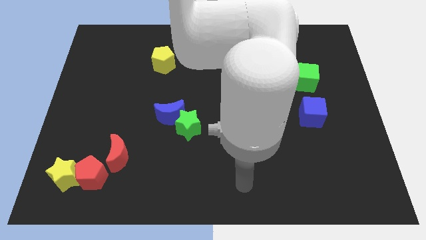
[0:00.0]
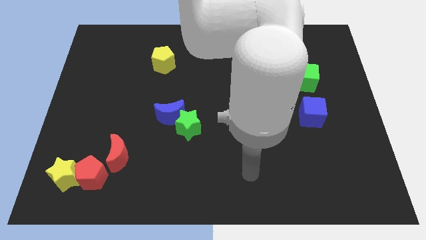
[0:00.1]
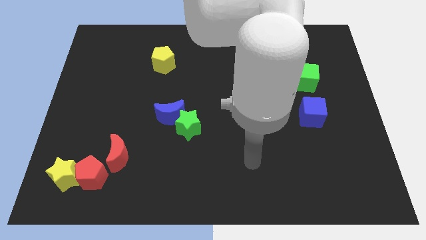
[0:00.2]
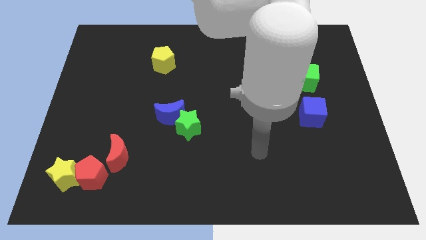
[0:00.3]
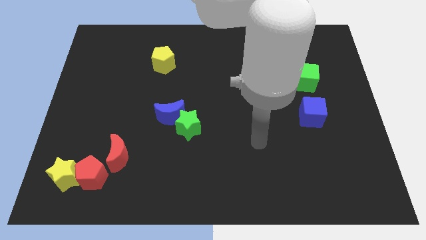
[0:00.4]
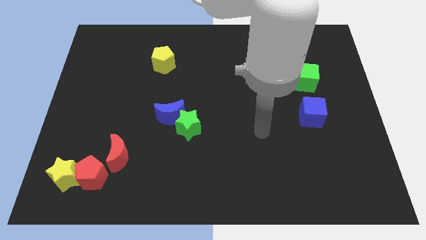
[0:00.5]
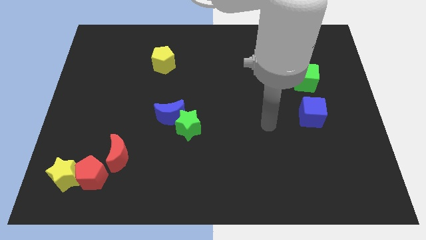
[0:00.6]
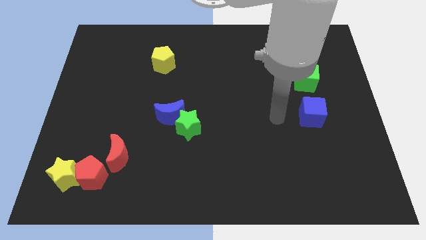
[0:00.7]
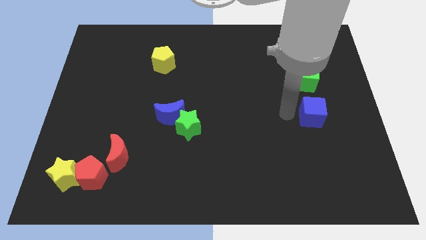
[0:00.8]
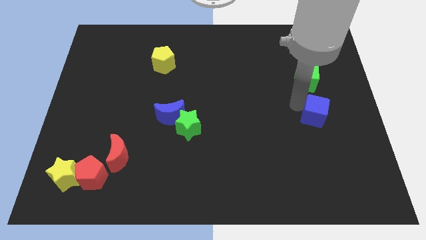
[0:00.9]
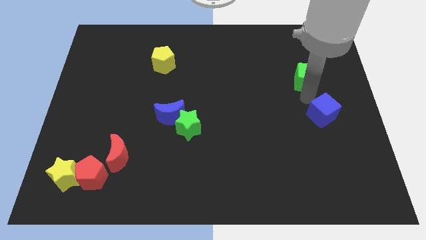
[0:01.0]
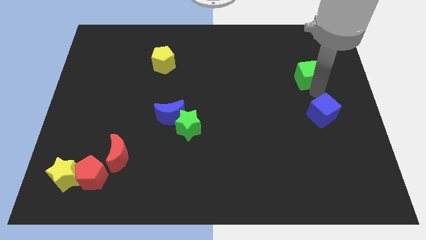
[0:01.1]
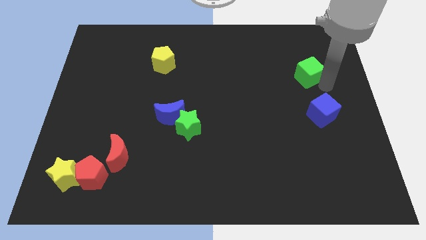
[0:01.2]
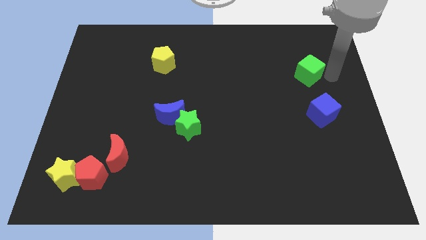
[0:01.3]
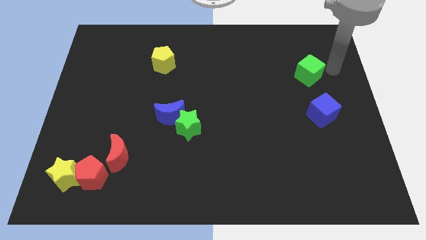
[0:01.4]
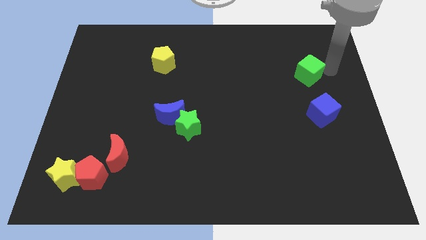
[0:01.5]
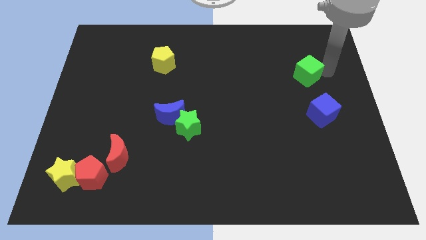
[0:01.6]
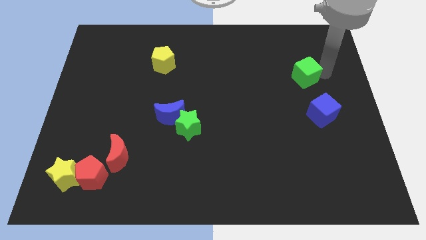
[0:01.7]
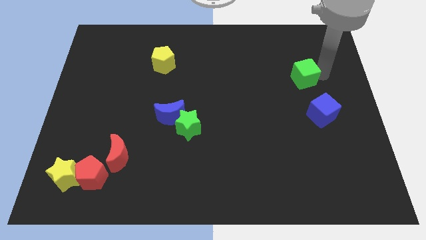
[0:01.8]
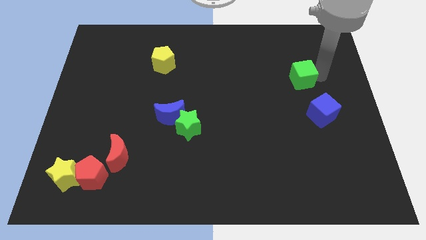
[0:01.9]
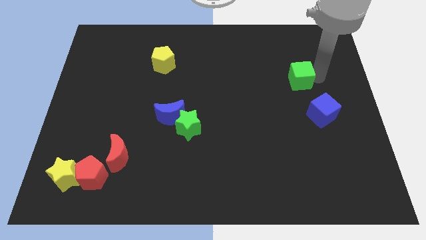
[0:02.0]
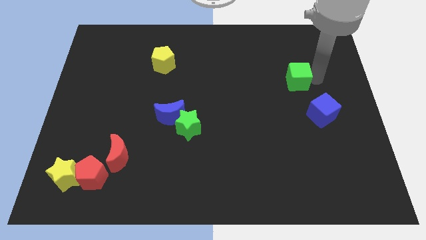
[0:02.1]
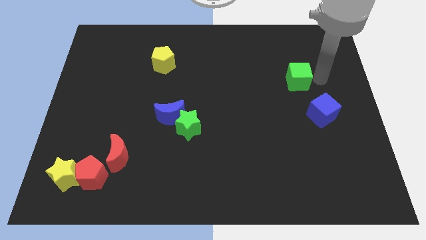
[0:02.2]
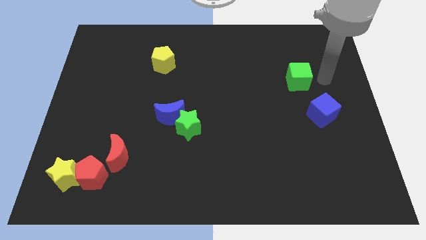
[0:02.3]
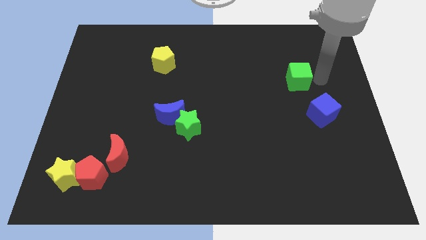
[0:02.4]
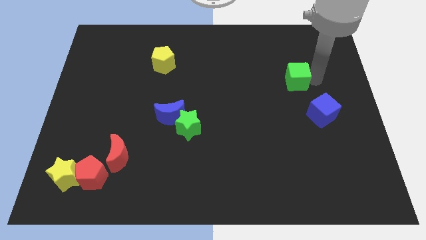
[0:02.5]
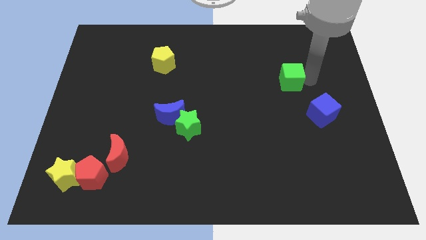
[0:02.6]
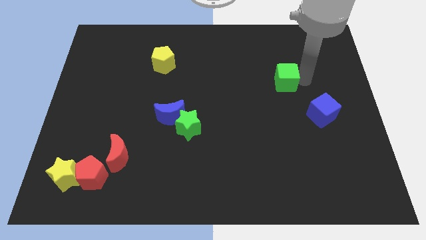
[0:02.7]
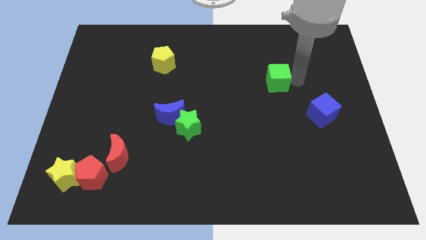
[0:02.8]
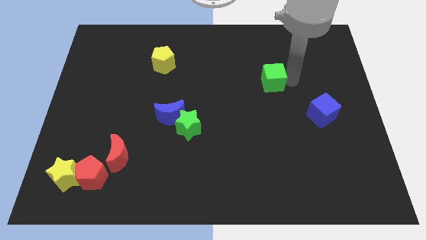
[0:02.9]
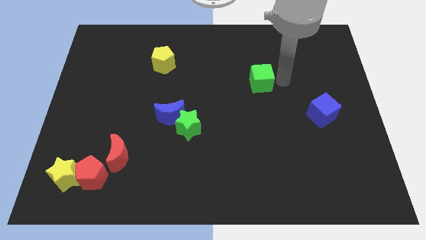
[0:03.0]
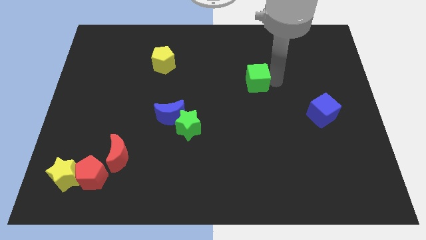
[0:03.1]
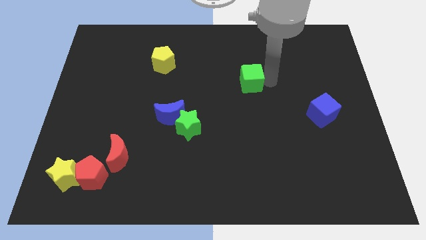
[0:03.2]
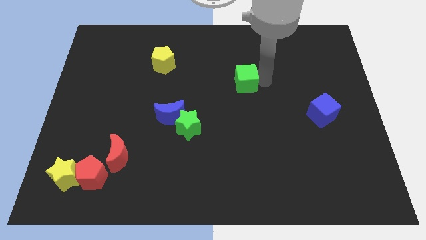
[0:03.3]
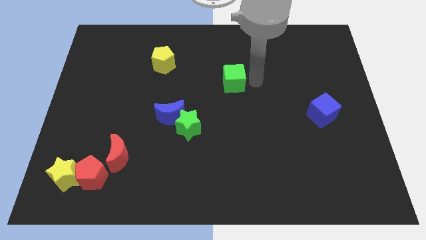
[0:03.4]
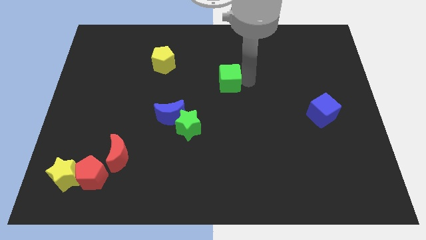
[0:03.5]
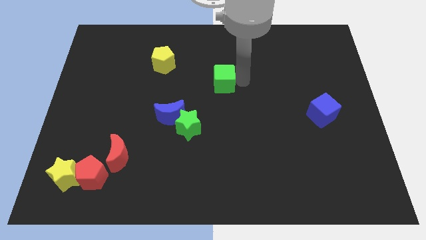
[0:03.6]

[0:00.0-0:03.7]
move the green cube left

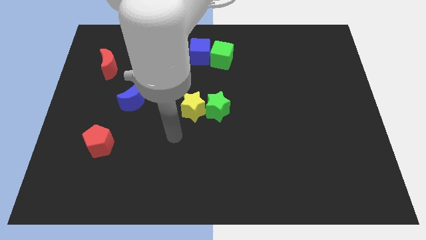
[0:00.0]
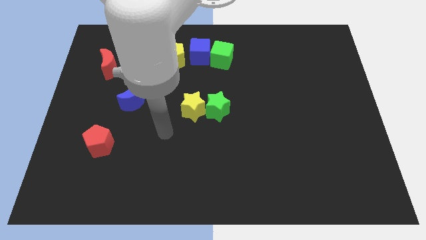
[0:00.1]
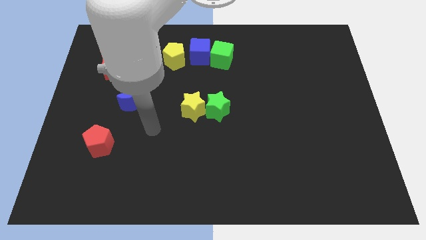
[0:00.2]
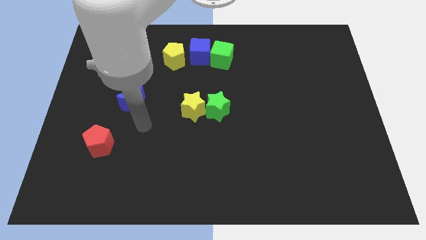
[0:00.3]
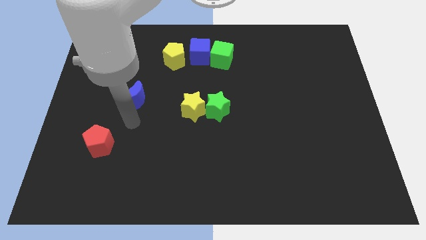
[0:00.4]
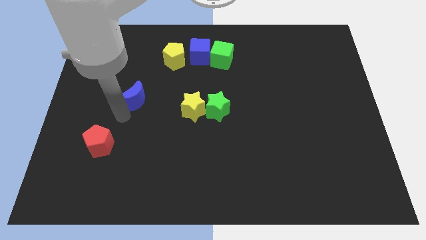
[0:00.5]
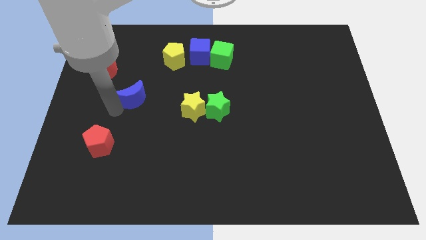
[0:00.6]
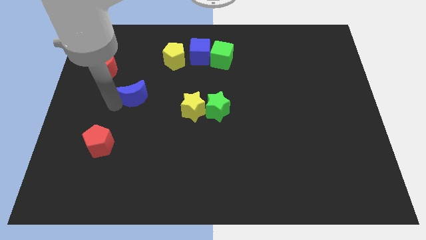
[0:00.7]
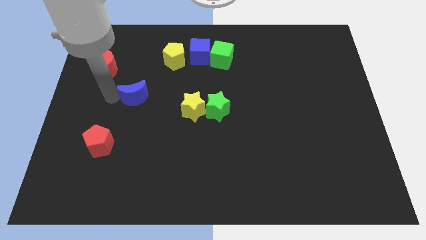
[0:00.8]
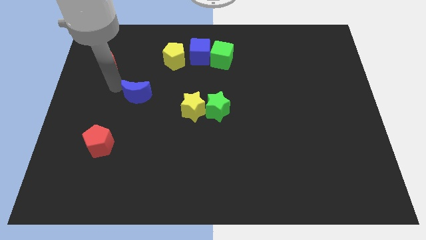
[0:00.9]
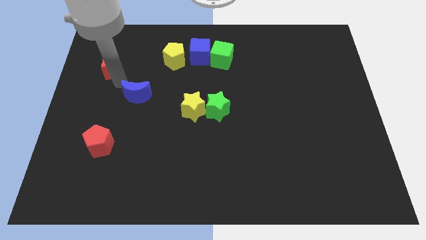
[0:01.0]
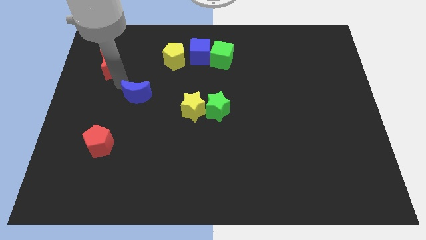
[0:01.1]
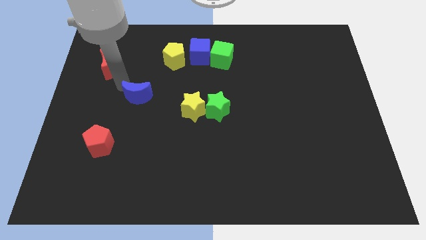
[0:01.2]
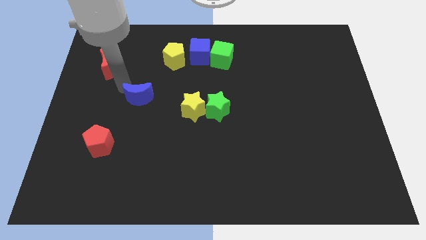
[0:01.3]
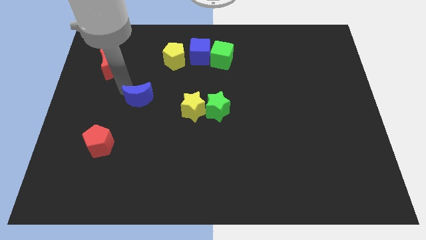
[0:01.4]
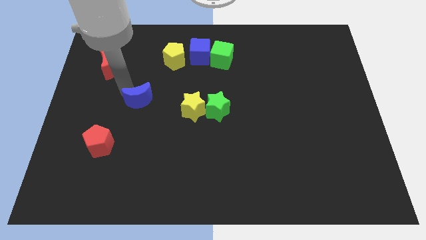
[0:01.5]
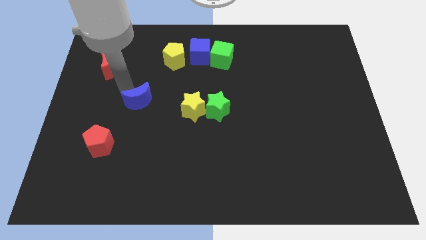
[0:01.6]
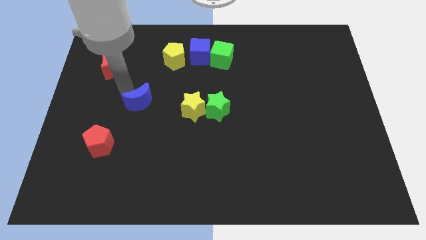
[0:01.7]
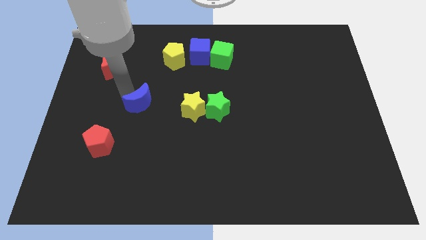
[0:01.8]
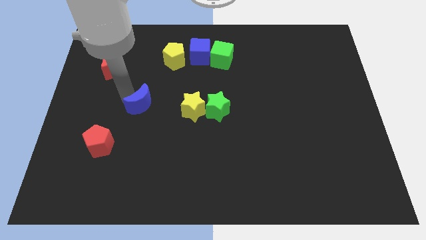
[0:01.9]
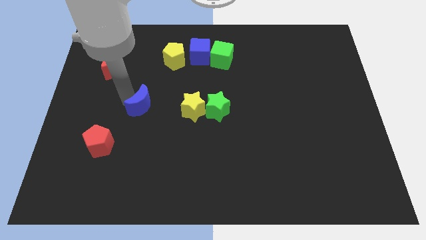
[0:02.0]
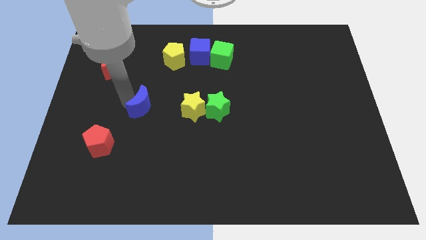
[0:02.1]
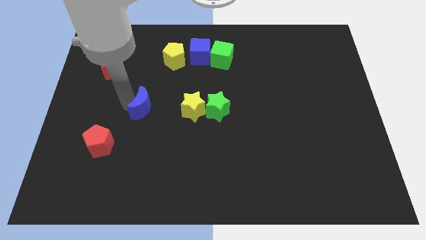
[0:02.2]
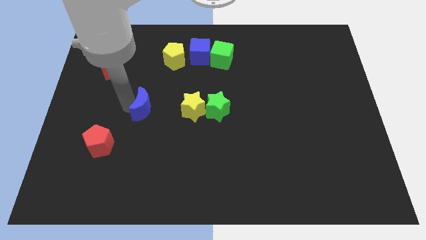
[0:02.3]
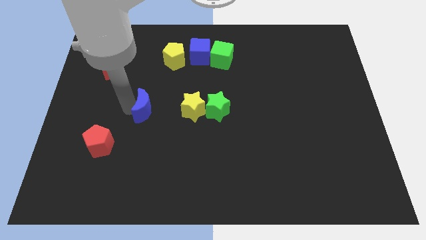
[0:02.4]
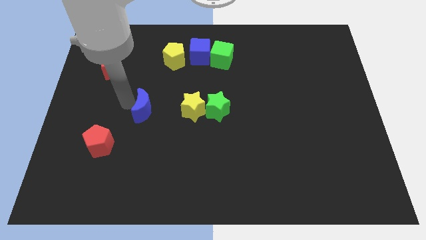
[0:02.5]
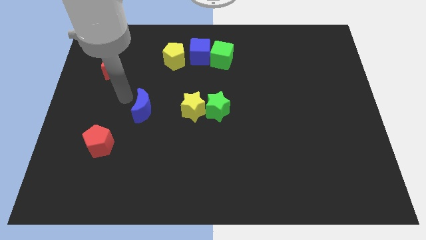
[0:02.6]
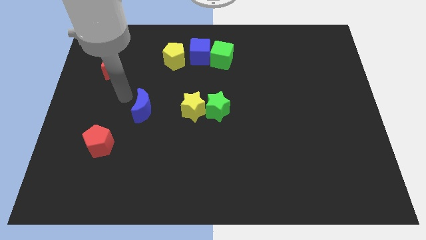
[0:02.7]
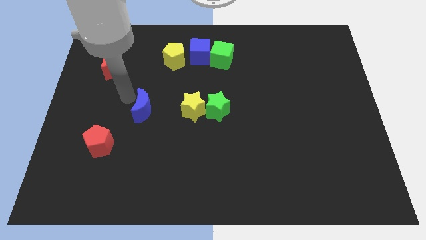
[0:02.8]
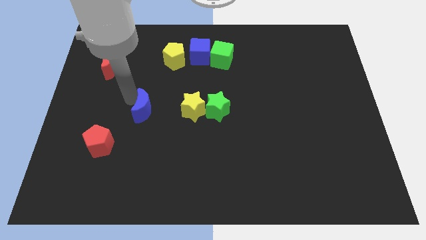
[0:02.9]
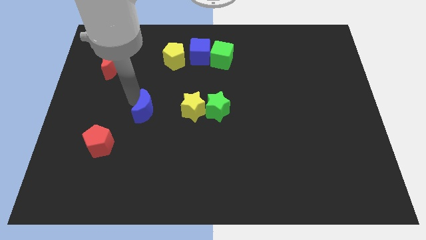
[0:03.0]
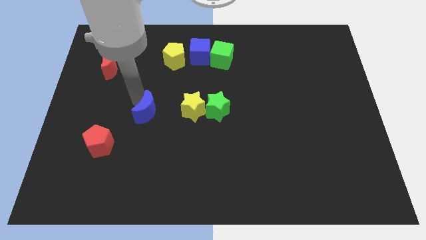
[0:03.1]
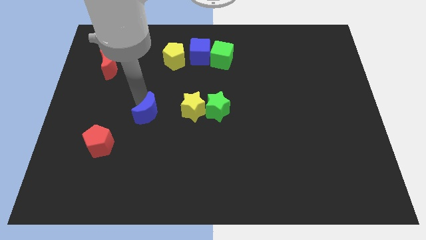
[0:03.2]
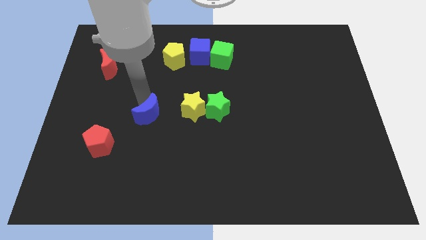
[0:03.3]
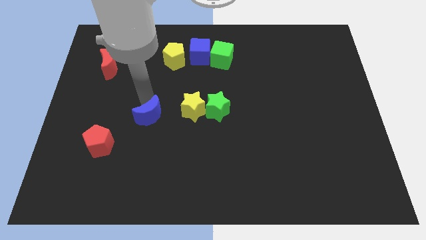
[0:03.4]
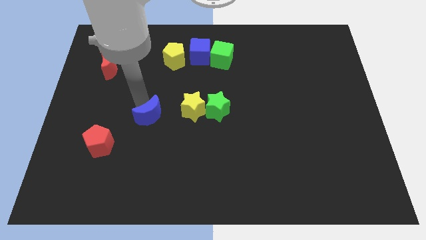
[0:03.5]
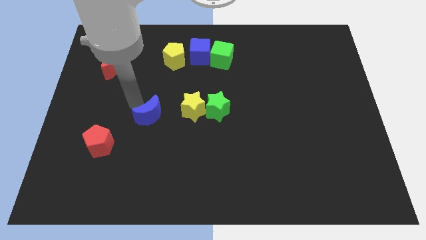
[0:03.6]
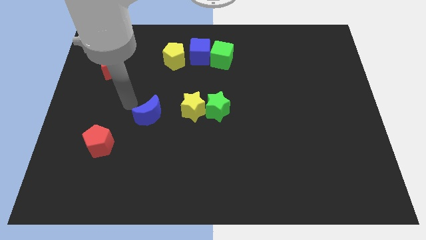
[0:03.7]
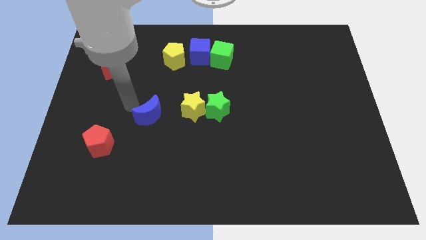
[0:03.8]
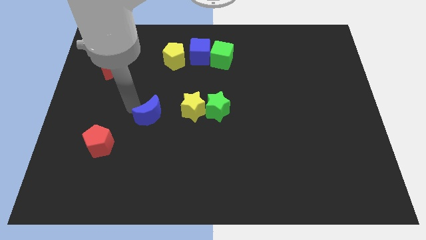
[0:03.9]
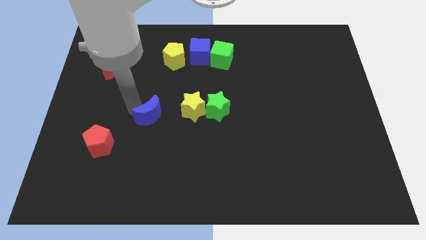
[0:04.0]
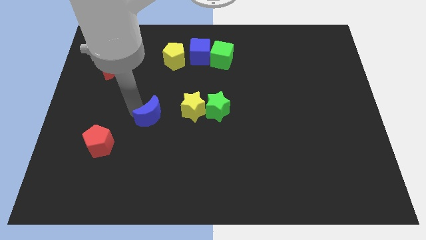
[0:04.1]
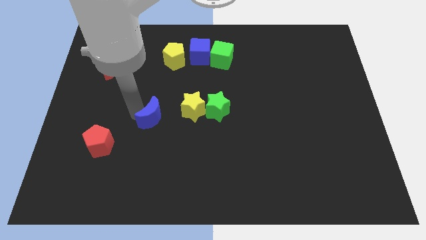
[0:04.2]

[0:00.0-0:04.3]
push the blue moon slightly diagonally down and right

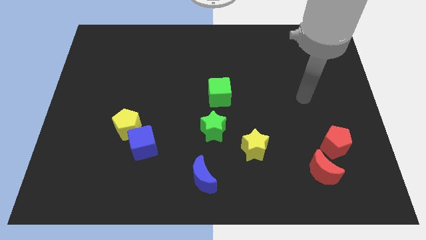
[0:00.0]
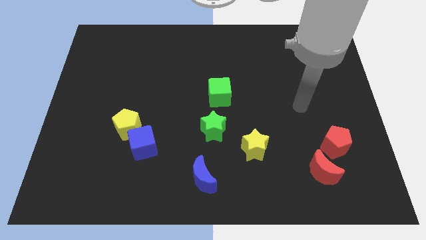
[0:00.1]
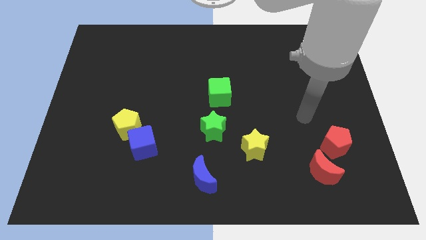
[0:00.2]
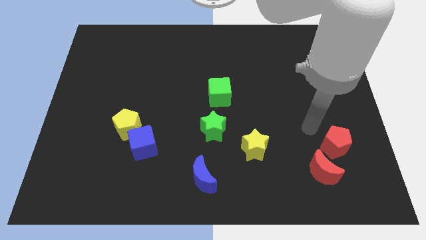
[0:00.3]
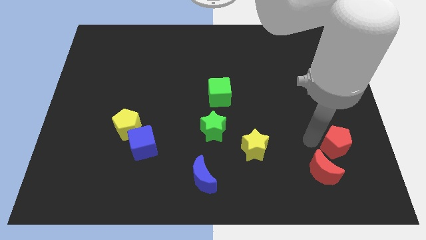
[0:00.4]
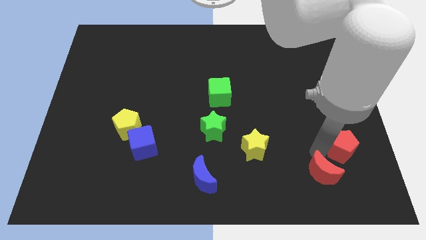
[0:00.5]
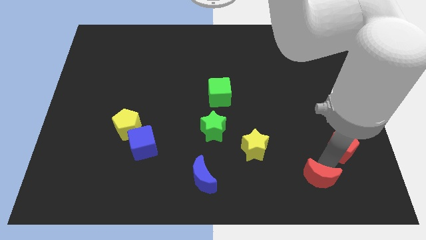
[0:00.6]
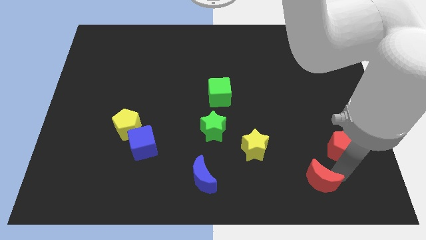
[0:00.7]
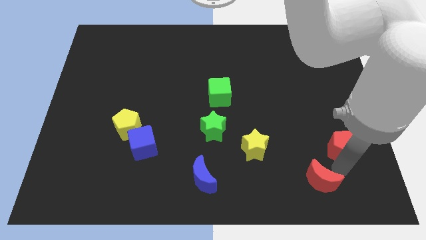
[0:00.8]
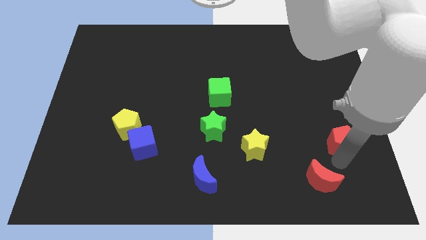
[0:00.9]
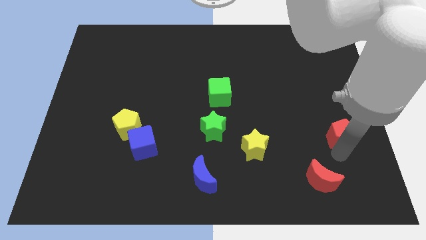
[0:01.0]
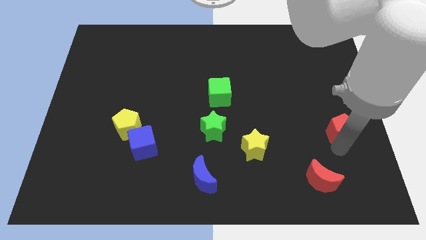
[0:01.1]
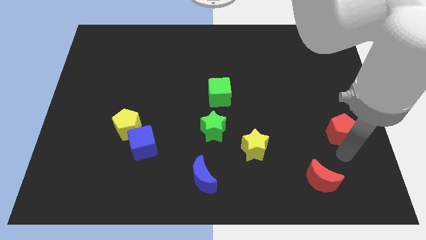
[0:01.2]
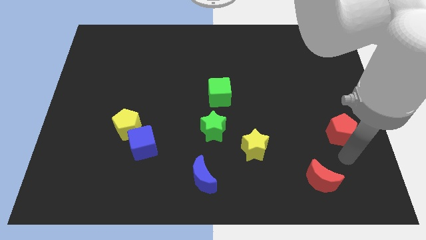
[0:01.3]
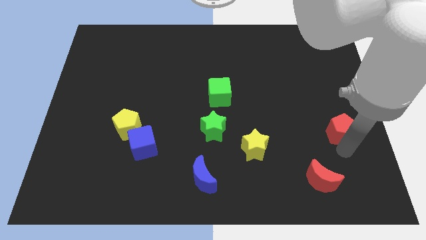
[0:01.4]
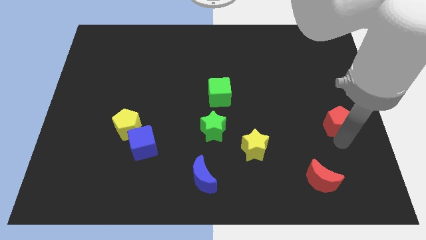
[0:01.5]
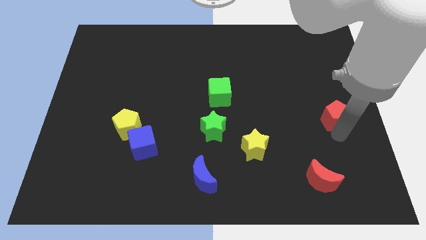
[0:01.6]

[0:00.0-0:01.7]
slide the red pentagon somewhat up
